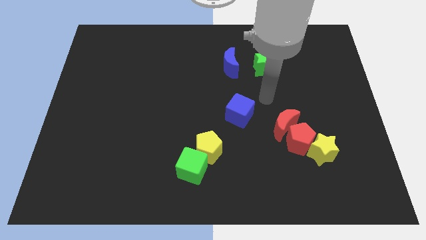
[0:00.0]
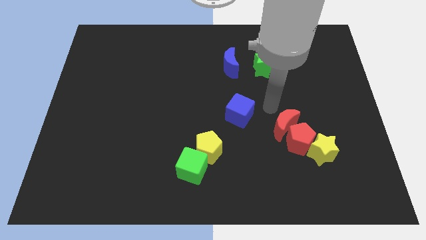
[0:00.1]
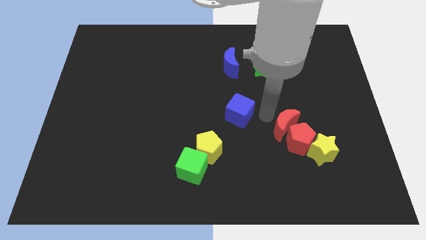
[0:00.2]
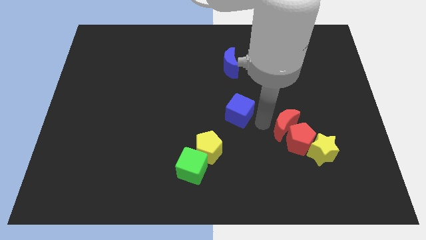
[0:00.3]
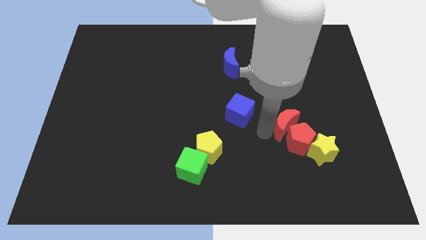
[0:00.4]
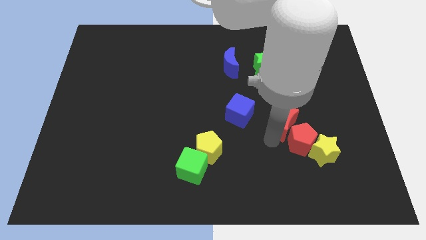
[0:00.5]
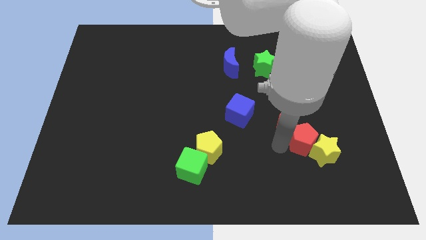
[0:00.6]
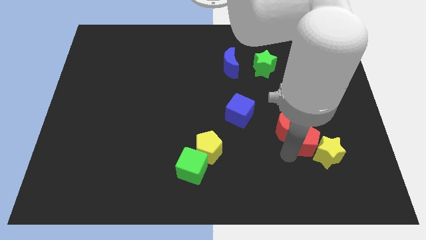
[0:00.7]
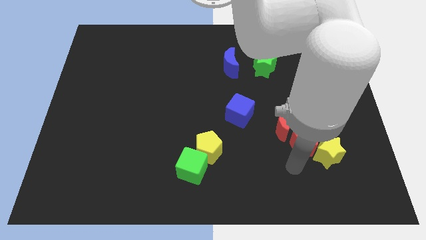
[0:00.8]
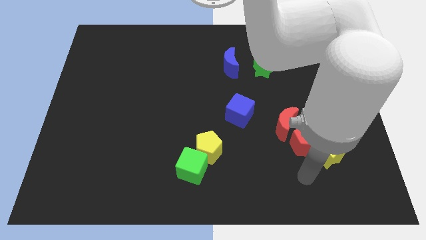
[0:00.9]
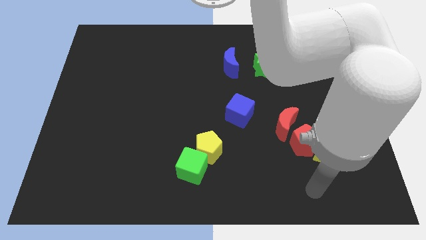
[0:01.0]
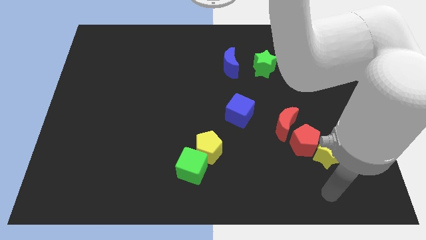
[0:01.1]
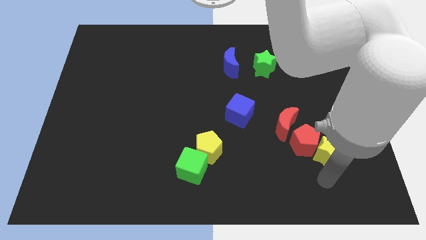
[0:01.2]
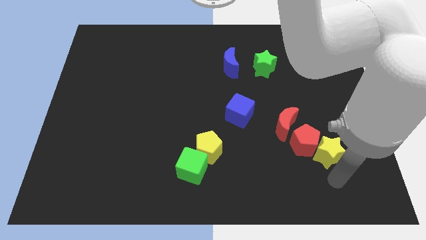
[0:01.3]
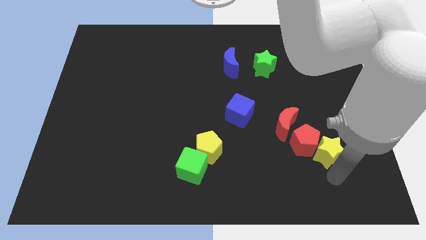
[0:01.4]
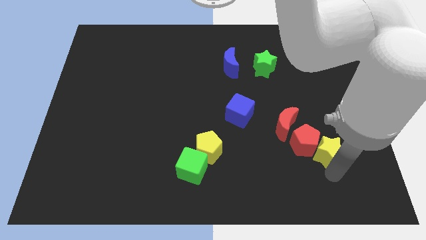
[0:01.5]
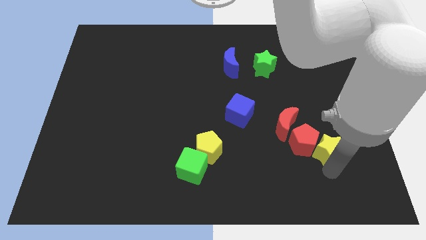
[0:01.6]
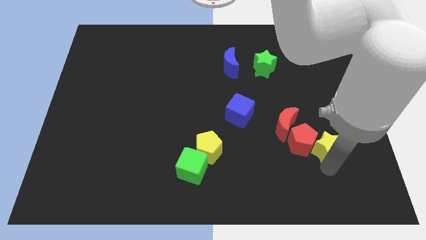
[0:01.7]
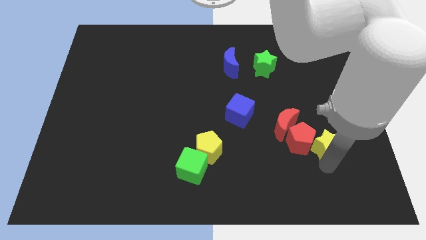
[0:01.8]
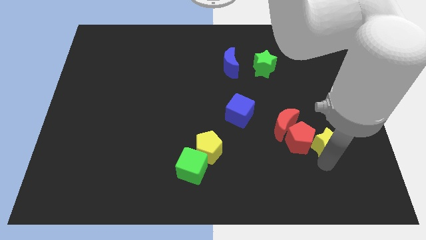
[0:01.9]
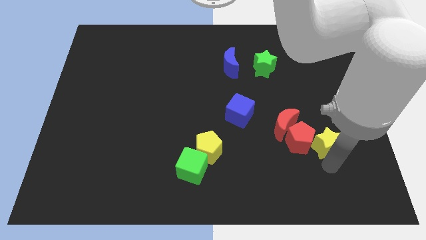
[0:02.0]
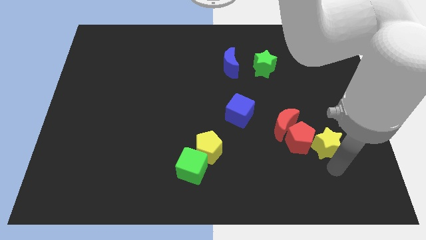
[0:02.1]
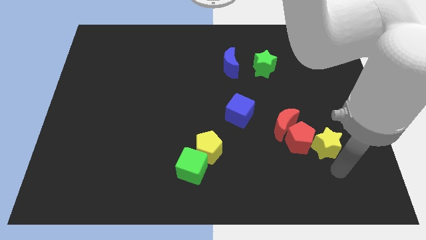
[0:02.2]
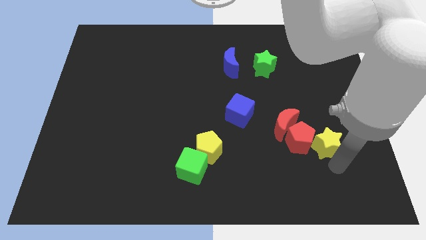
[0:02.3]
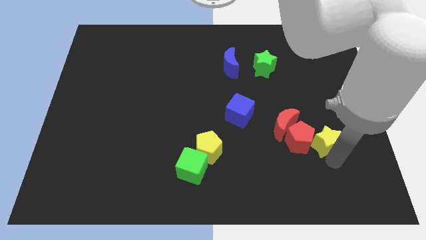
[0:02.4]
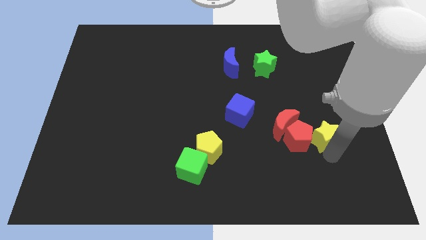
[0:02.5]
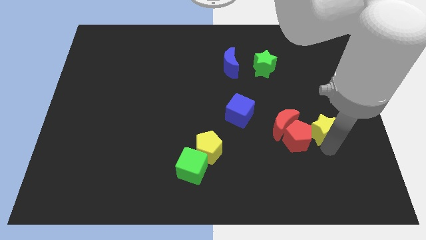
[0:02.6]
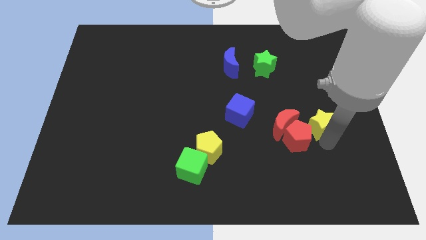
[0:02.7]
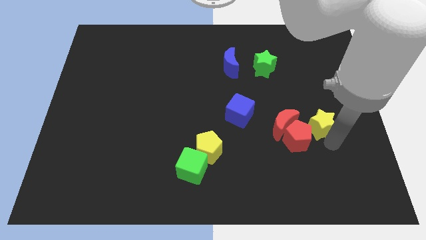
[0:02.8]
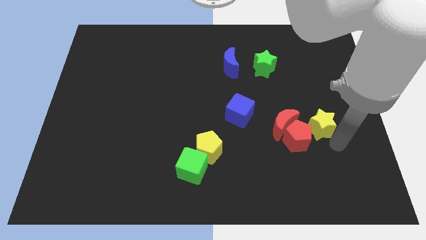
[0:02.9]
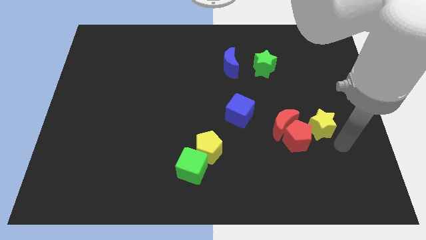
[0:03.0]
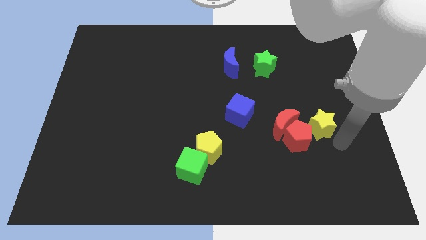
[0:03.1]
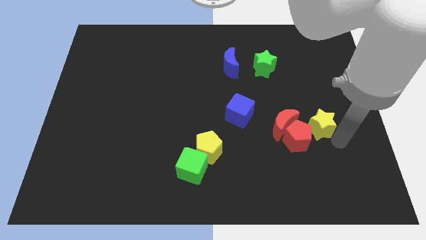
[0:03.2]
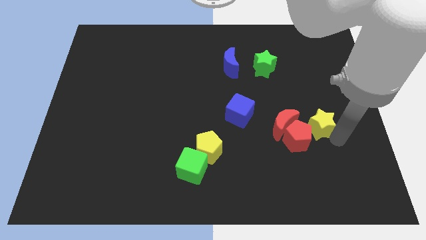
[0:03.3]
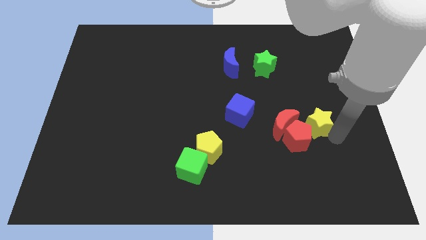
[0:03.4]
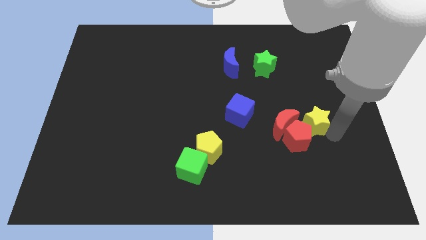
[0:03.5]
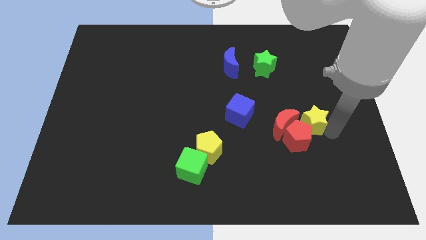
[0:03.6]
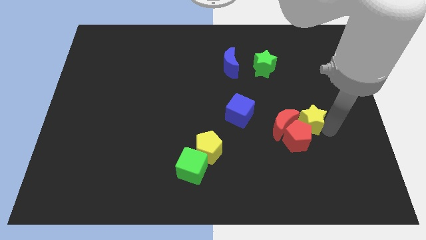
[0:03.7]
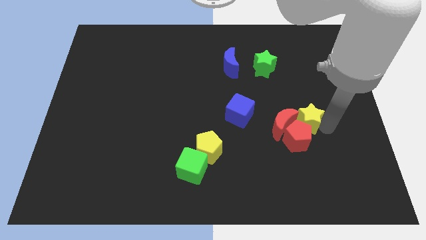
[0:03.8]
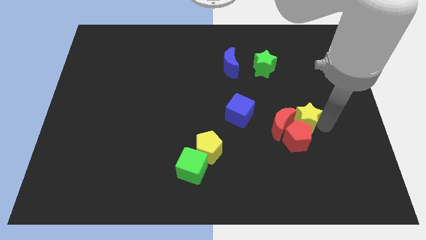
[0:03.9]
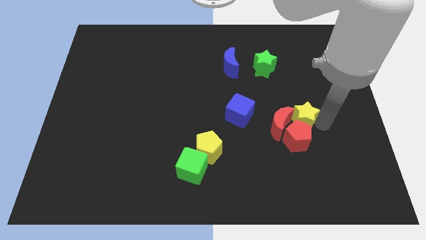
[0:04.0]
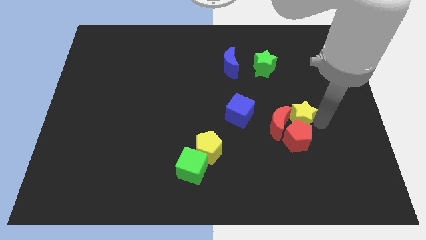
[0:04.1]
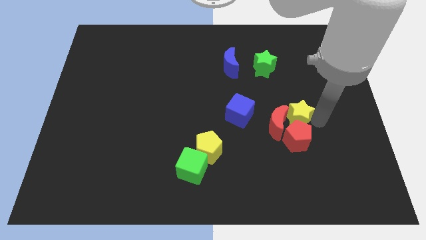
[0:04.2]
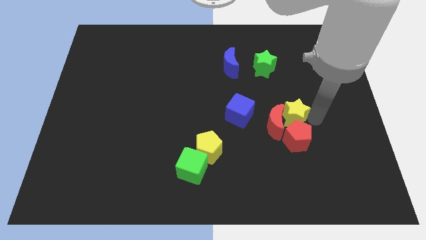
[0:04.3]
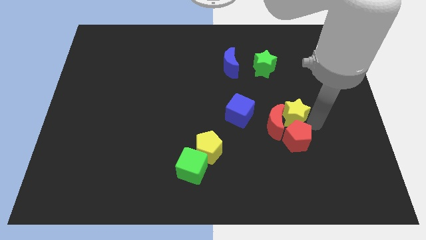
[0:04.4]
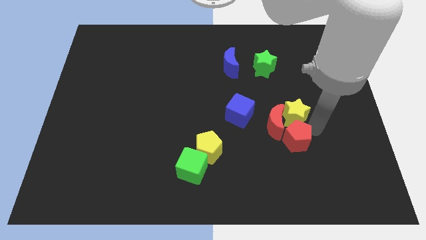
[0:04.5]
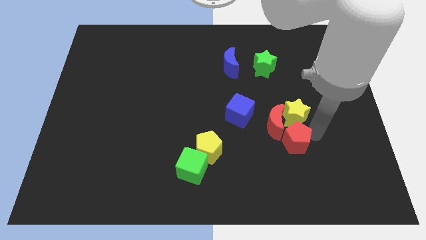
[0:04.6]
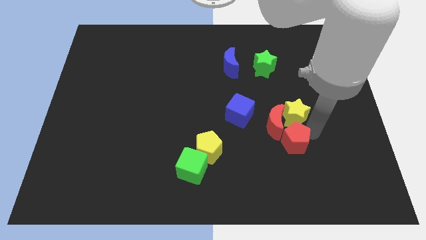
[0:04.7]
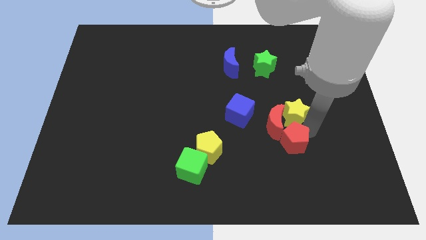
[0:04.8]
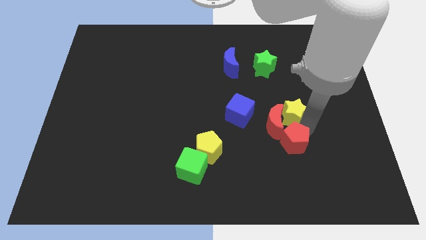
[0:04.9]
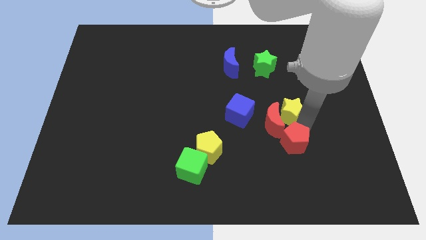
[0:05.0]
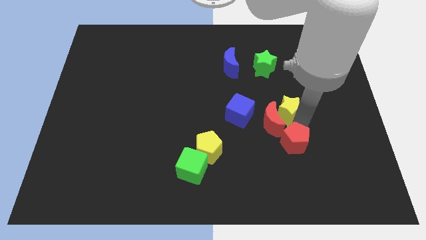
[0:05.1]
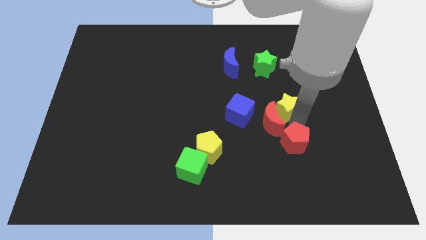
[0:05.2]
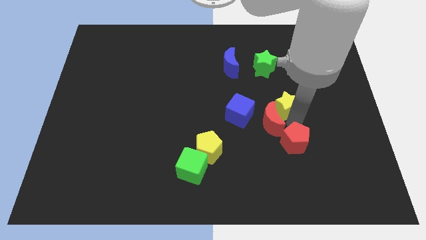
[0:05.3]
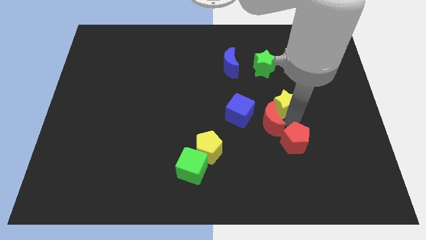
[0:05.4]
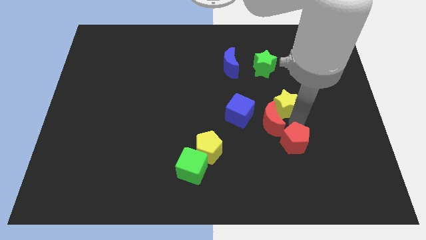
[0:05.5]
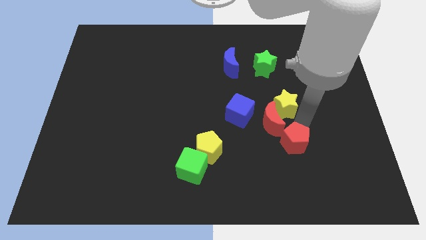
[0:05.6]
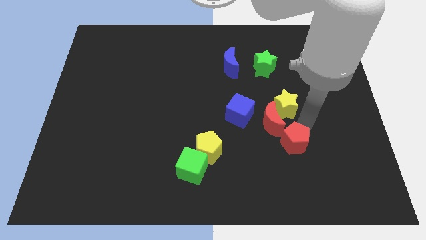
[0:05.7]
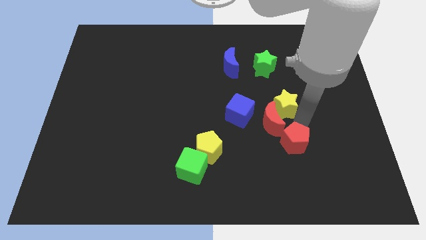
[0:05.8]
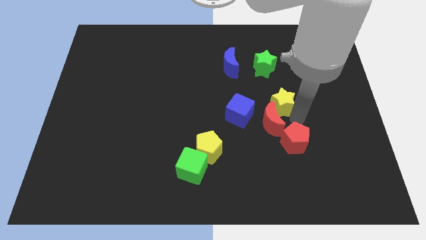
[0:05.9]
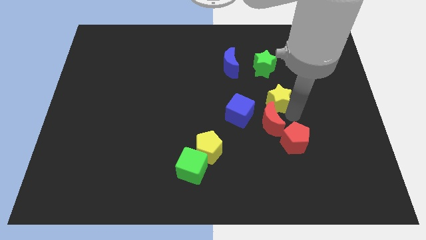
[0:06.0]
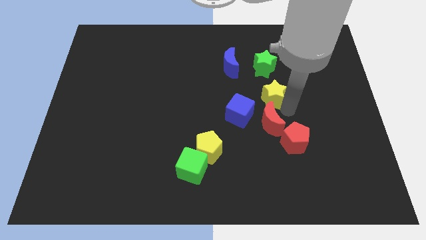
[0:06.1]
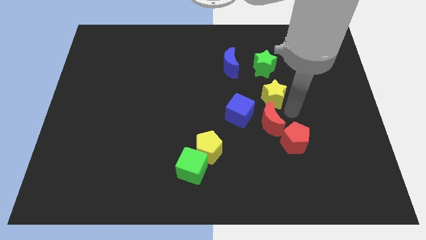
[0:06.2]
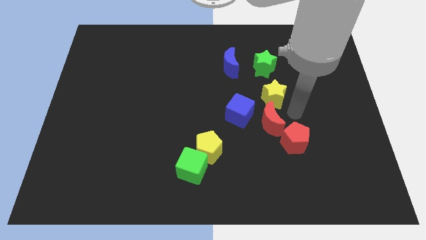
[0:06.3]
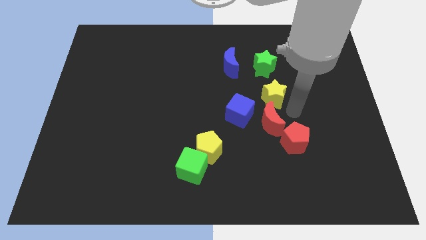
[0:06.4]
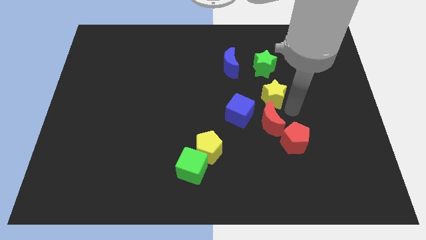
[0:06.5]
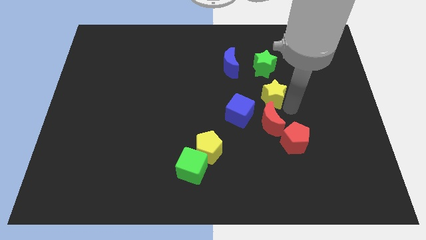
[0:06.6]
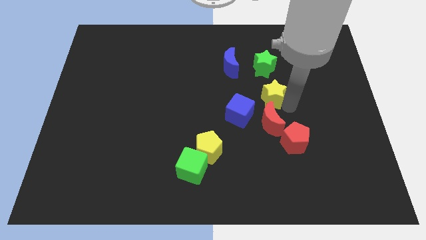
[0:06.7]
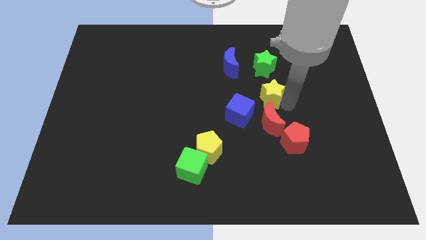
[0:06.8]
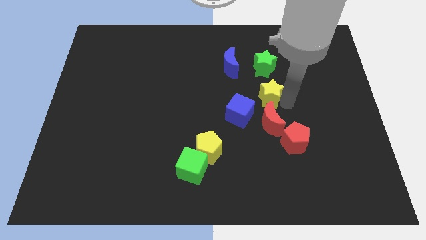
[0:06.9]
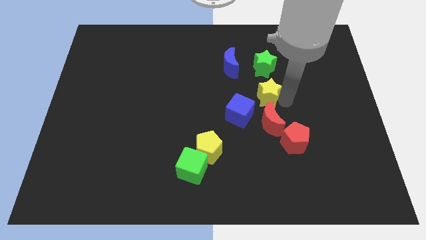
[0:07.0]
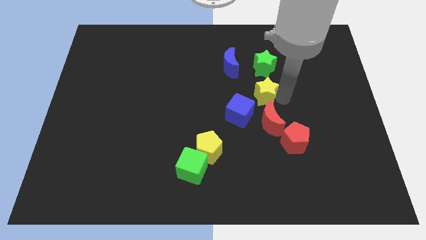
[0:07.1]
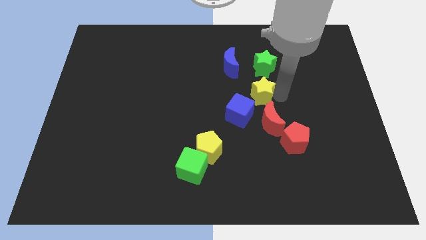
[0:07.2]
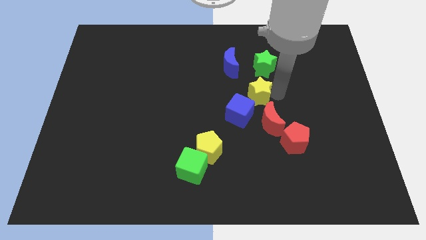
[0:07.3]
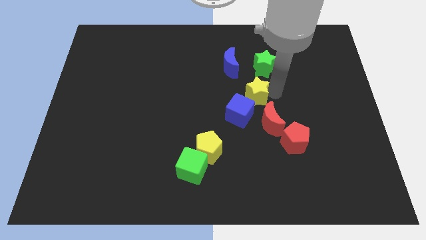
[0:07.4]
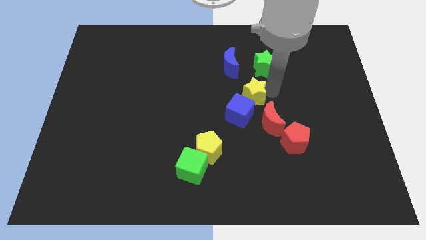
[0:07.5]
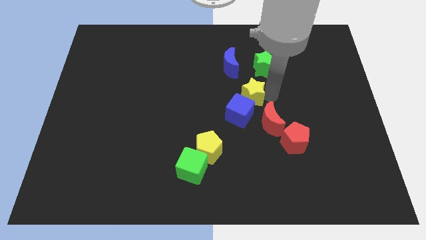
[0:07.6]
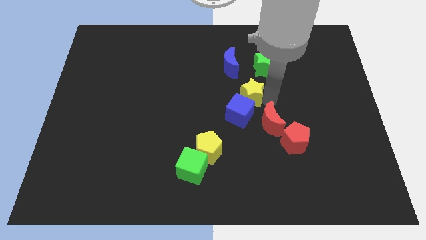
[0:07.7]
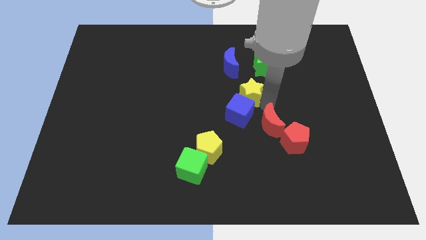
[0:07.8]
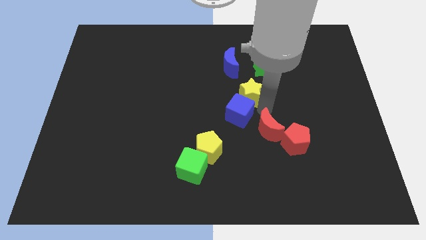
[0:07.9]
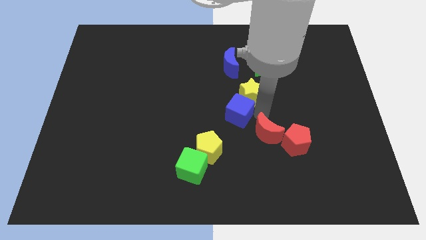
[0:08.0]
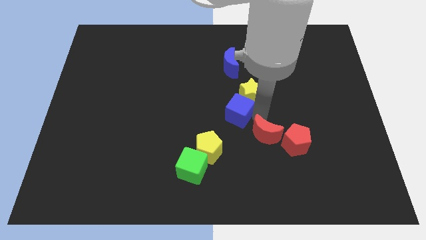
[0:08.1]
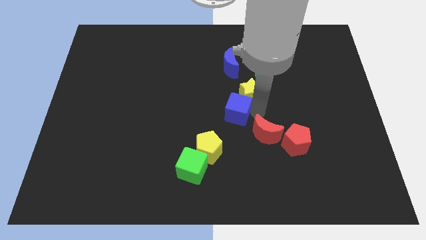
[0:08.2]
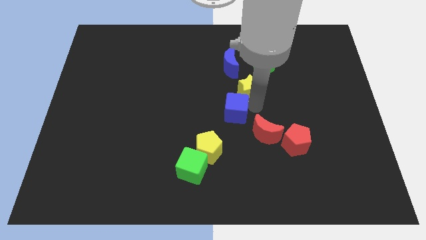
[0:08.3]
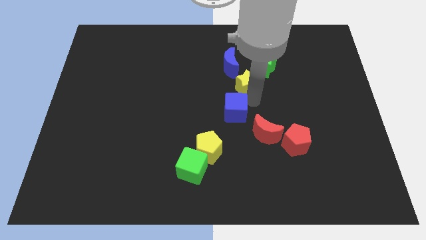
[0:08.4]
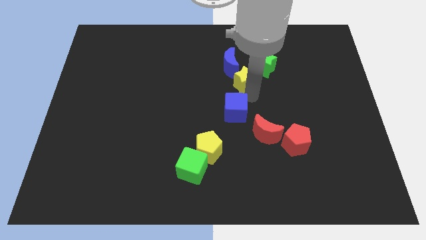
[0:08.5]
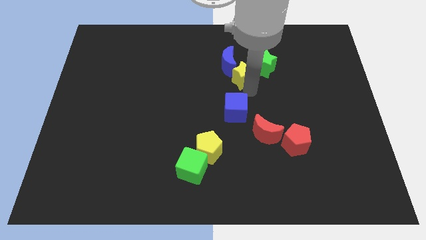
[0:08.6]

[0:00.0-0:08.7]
push the yellow star next to the blue moon
